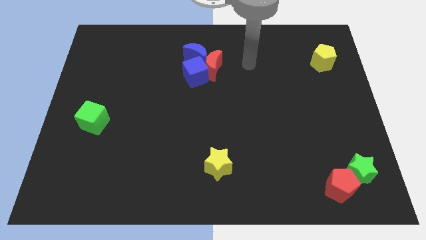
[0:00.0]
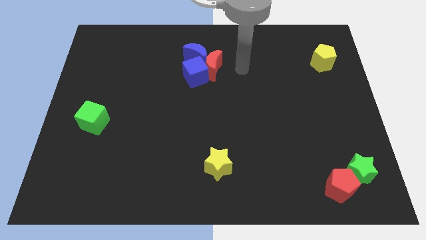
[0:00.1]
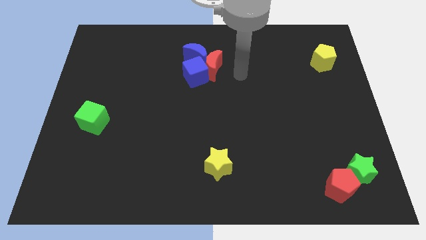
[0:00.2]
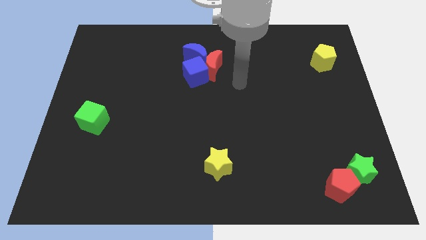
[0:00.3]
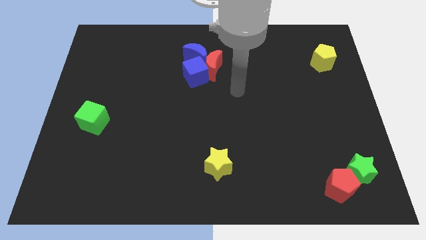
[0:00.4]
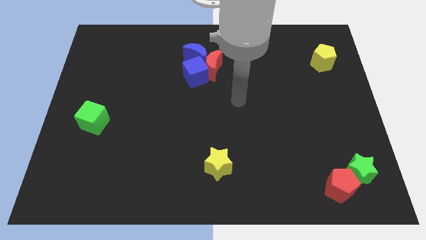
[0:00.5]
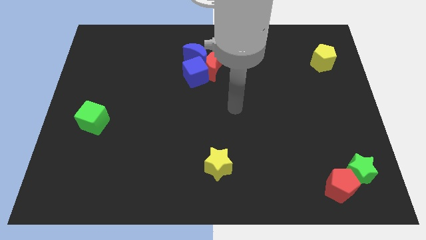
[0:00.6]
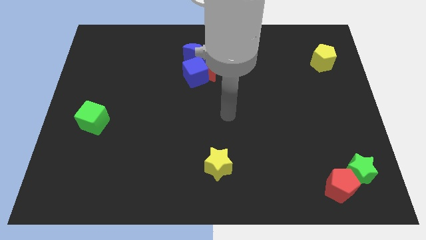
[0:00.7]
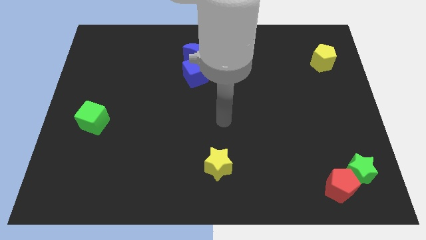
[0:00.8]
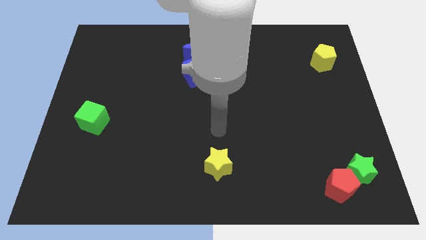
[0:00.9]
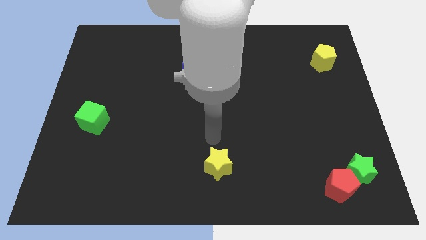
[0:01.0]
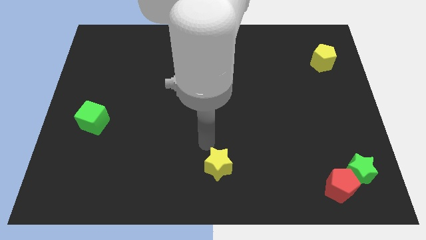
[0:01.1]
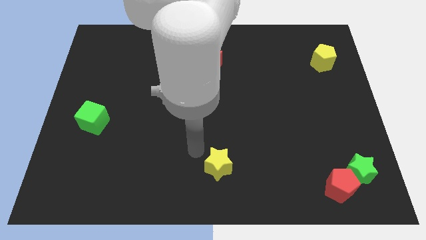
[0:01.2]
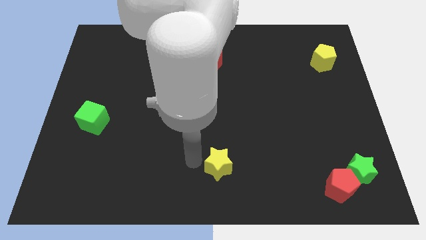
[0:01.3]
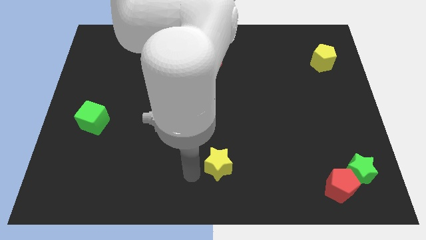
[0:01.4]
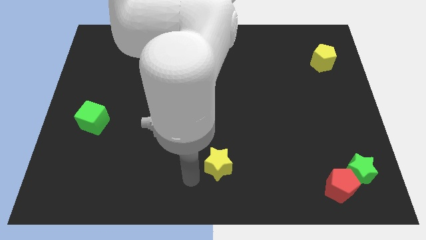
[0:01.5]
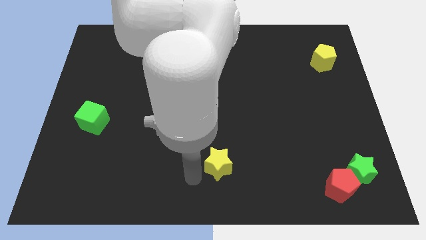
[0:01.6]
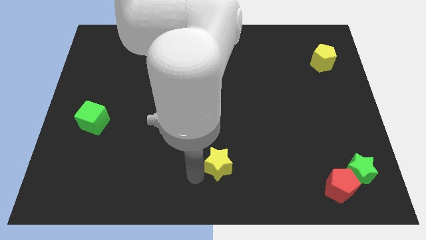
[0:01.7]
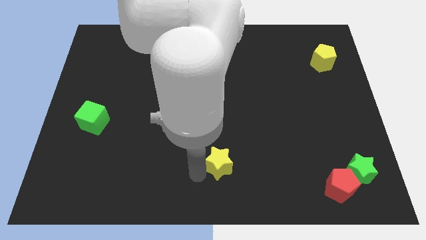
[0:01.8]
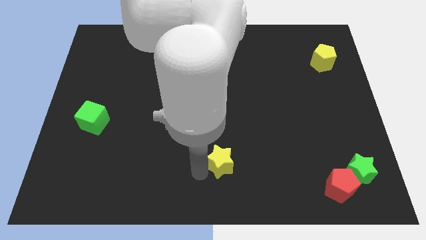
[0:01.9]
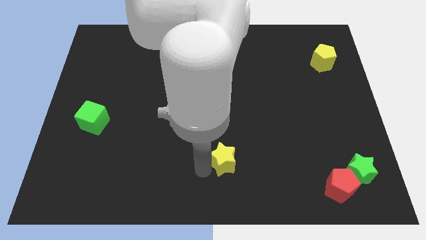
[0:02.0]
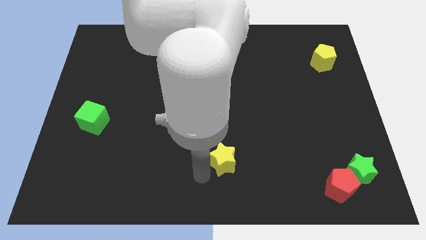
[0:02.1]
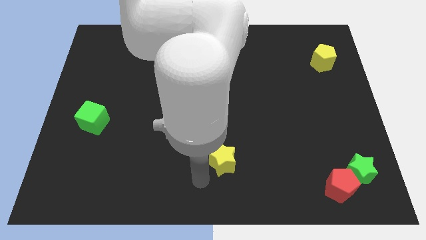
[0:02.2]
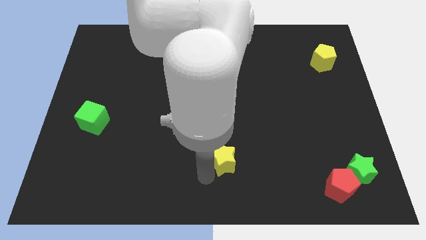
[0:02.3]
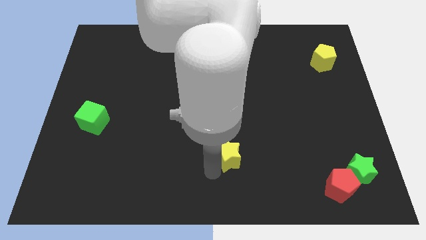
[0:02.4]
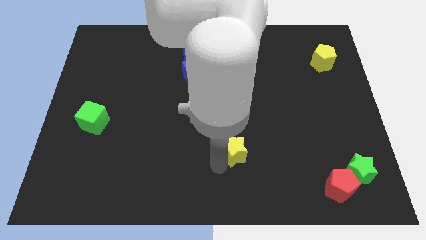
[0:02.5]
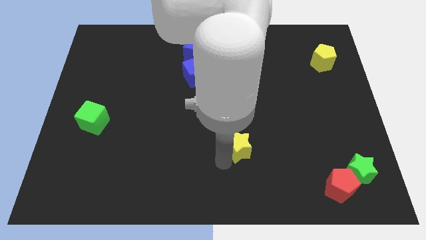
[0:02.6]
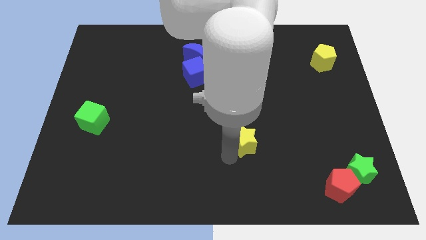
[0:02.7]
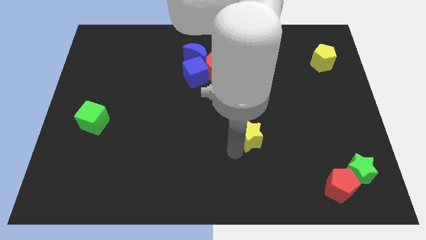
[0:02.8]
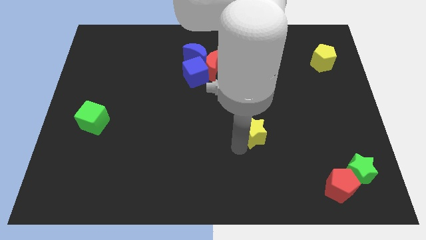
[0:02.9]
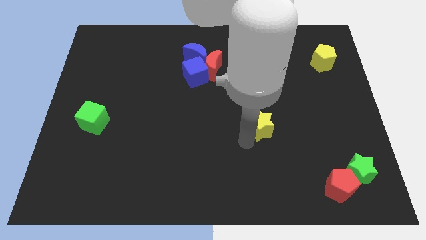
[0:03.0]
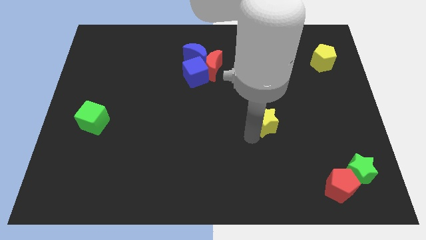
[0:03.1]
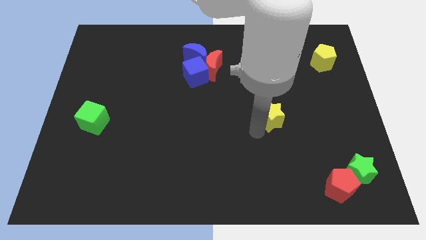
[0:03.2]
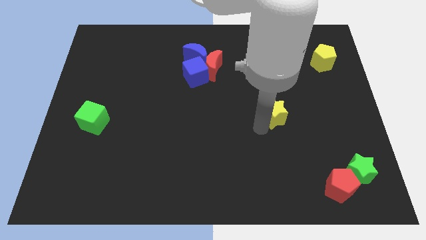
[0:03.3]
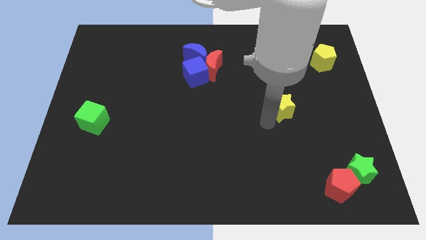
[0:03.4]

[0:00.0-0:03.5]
push the yellow star up and to the right

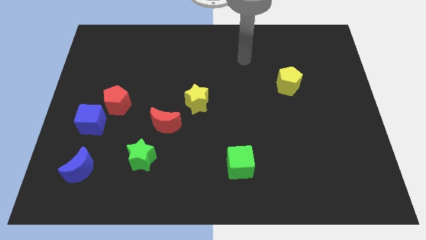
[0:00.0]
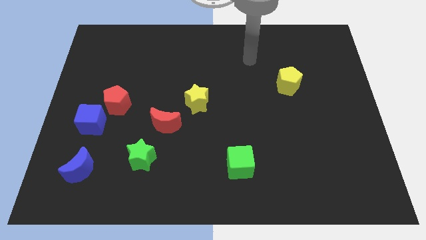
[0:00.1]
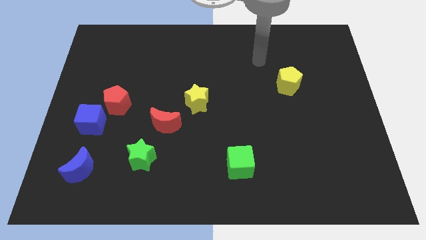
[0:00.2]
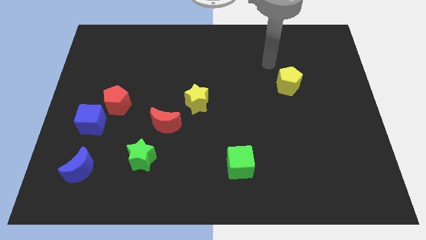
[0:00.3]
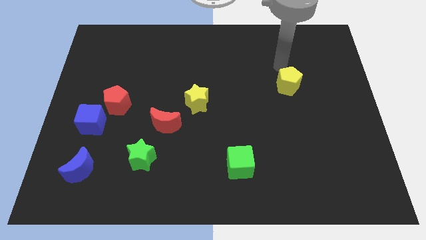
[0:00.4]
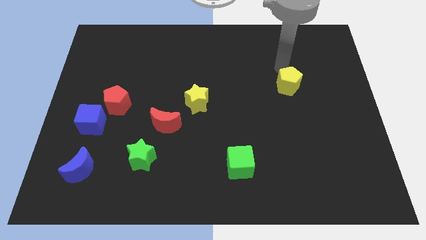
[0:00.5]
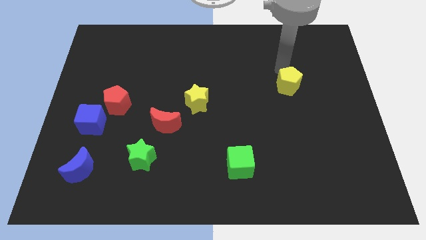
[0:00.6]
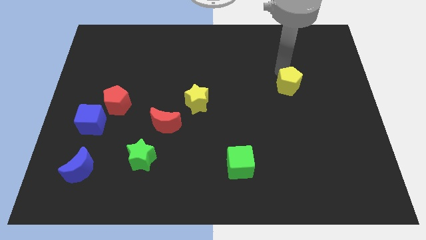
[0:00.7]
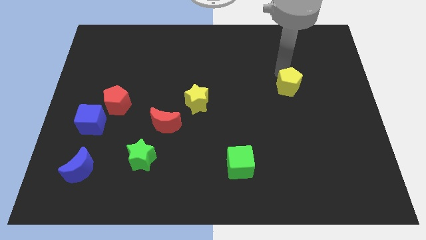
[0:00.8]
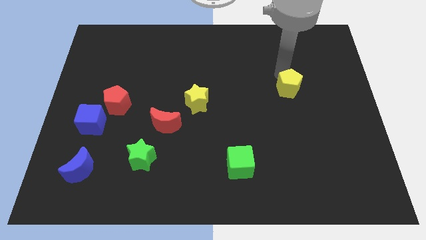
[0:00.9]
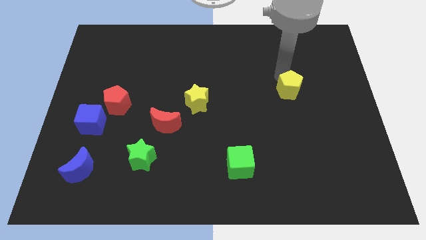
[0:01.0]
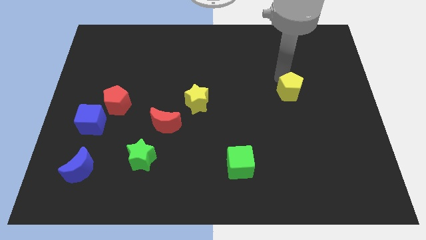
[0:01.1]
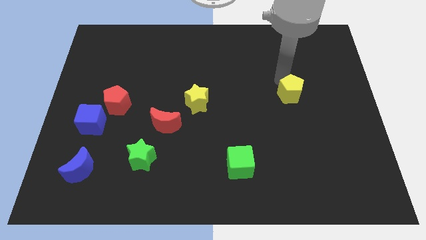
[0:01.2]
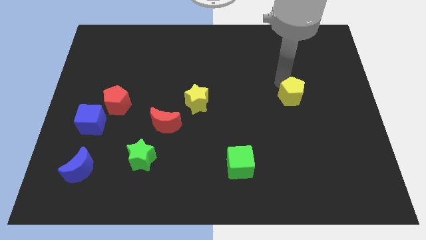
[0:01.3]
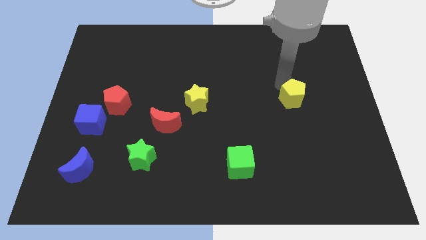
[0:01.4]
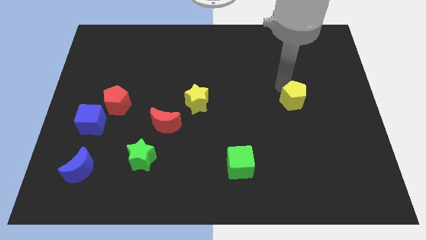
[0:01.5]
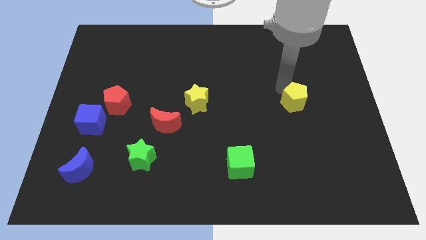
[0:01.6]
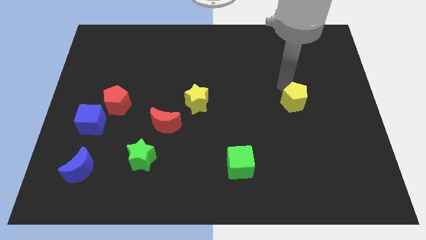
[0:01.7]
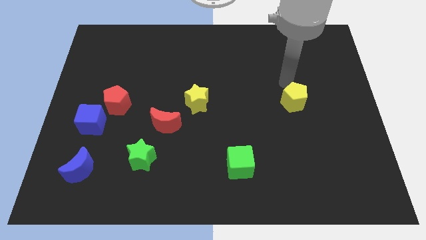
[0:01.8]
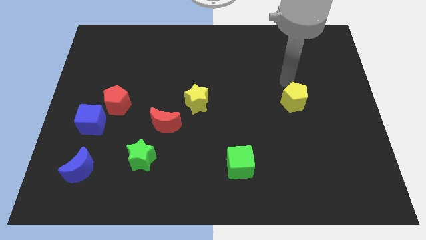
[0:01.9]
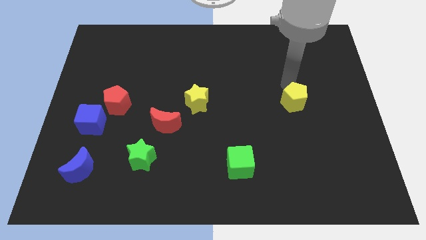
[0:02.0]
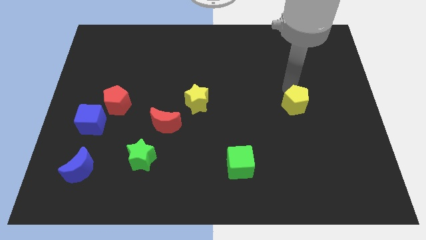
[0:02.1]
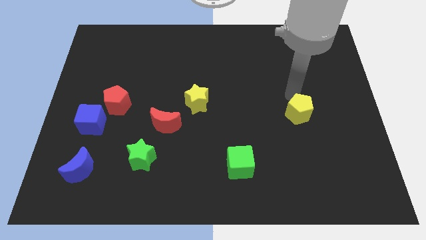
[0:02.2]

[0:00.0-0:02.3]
slide the yellow pentagon downwards a little bit

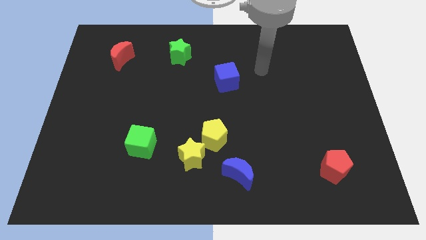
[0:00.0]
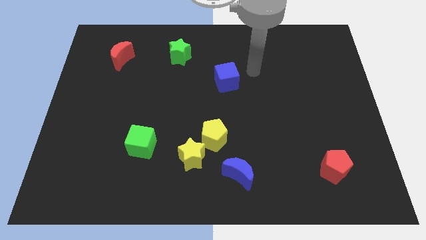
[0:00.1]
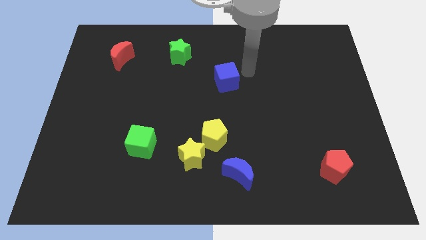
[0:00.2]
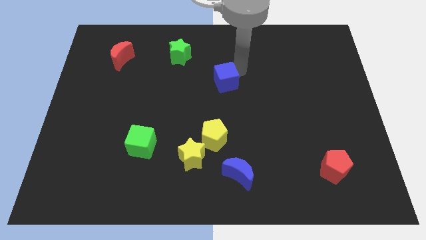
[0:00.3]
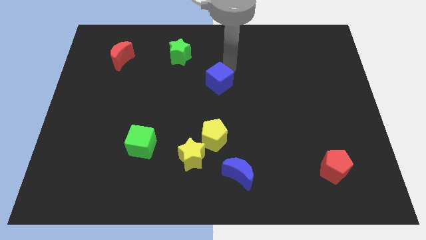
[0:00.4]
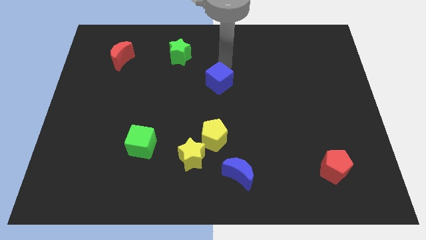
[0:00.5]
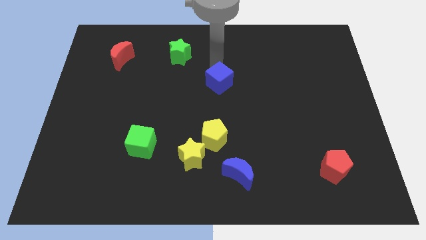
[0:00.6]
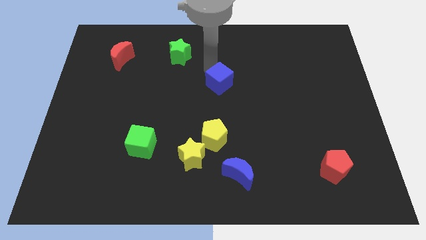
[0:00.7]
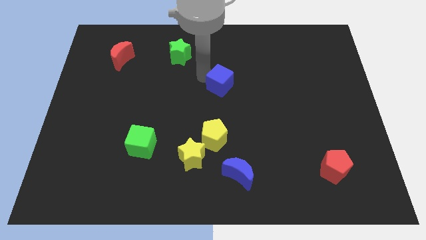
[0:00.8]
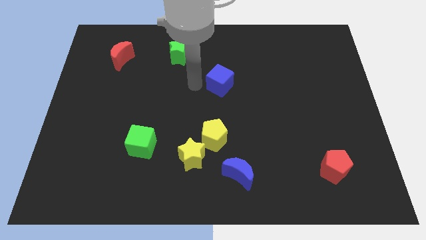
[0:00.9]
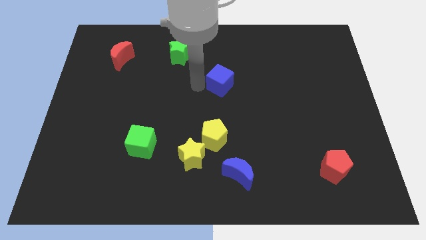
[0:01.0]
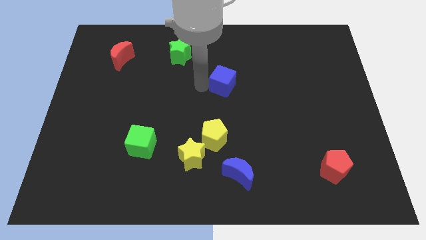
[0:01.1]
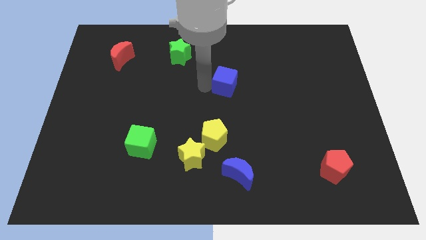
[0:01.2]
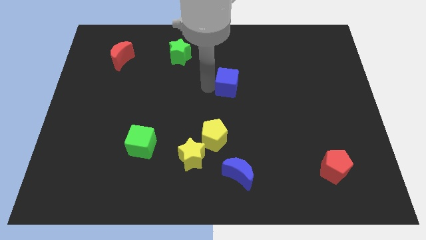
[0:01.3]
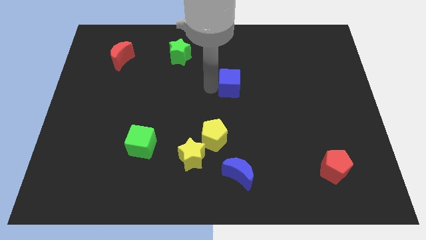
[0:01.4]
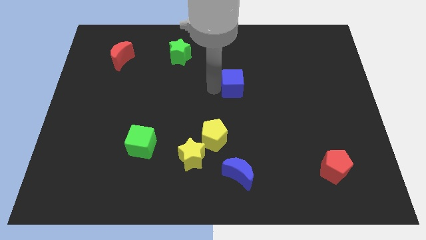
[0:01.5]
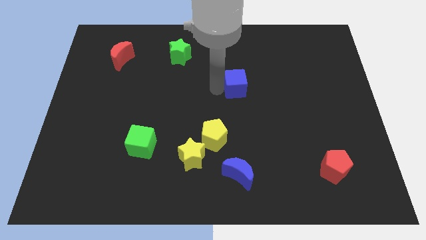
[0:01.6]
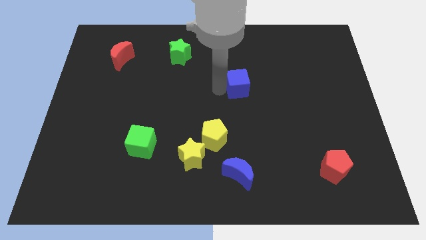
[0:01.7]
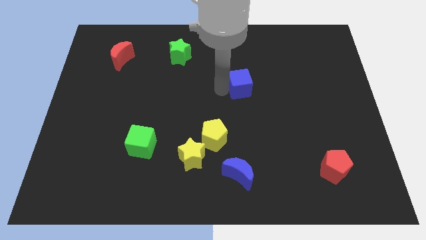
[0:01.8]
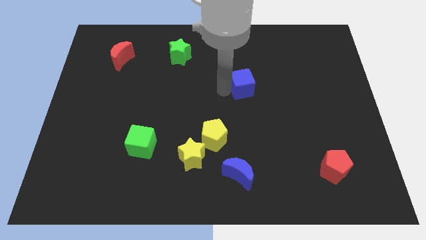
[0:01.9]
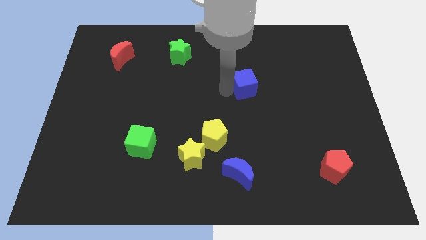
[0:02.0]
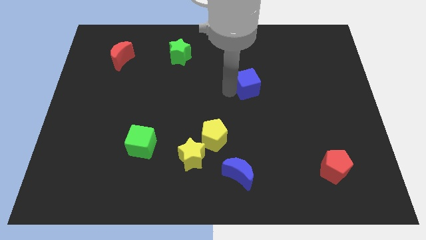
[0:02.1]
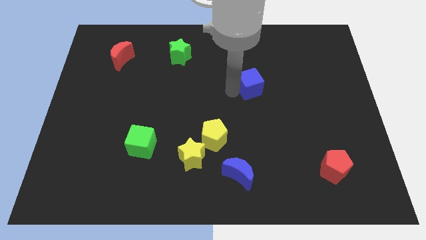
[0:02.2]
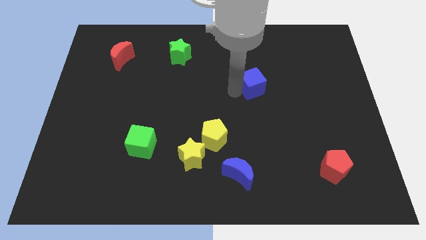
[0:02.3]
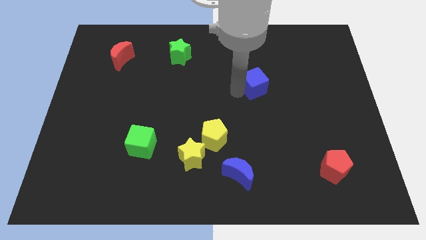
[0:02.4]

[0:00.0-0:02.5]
slightly move the blue cube to the right
